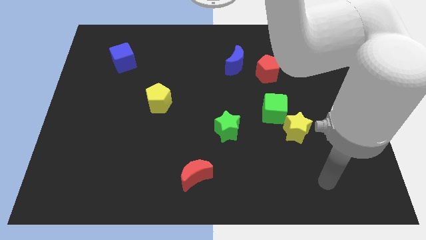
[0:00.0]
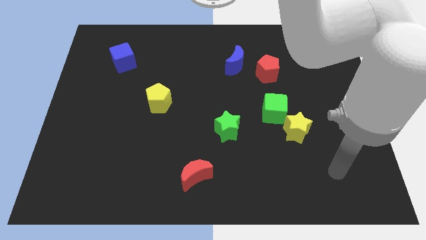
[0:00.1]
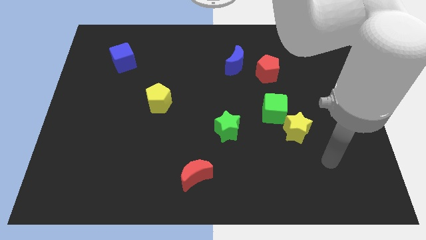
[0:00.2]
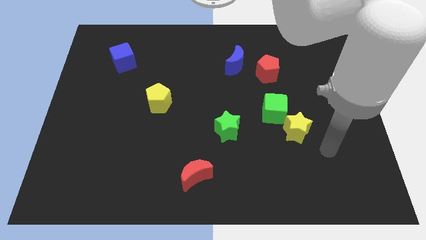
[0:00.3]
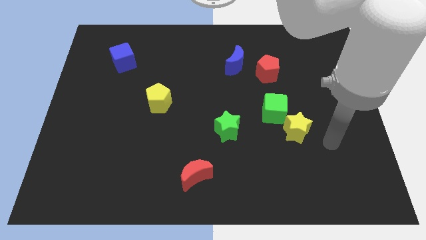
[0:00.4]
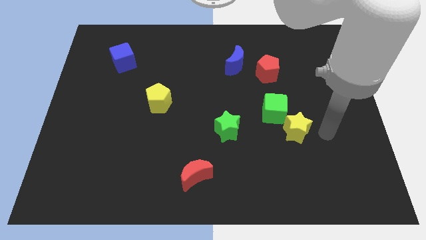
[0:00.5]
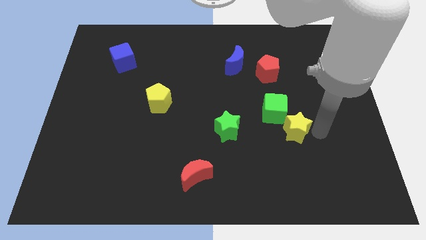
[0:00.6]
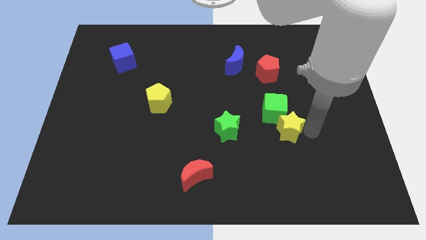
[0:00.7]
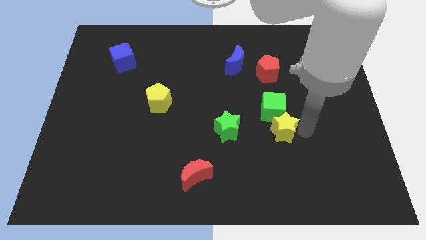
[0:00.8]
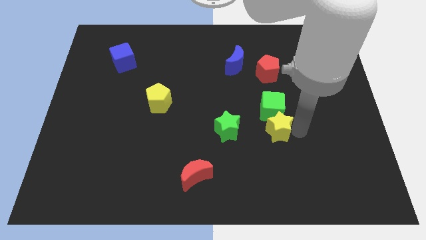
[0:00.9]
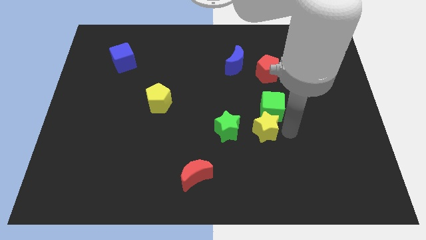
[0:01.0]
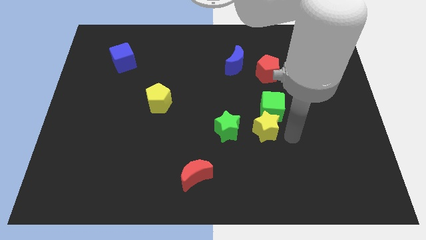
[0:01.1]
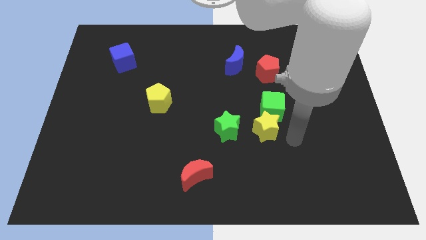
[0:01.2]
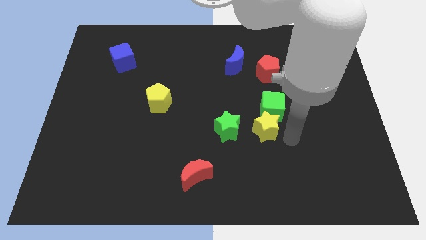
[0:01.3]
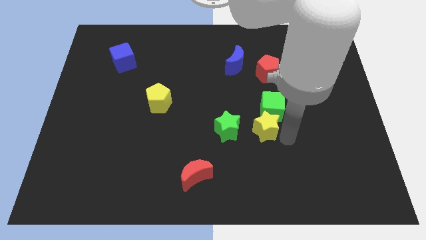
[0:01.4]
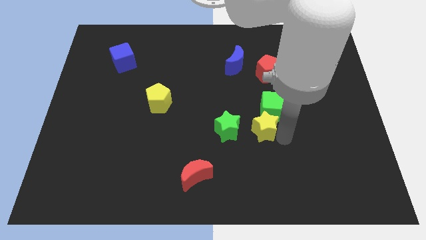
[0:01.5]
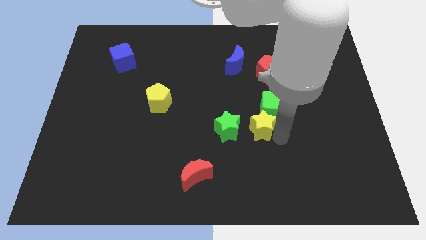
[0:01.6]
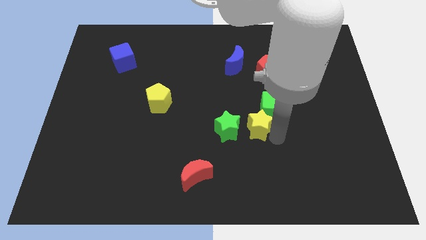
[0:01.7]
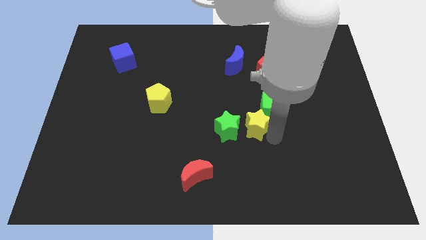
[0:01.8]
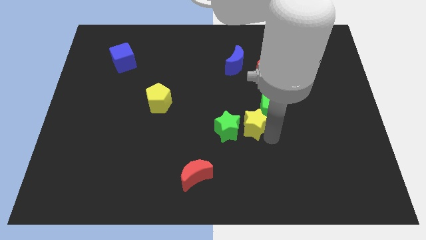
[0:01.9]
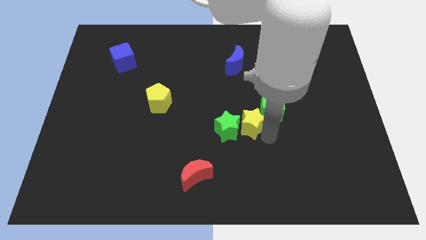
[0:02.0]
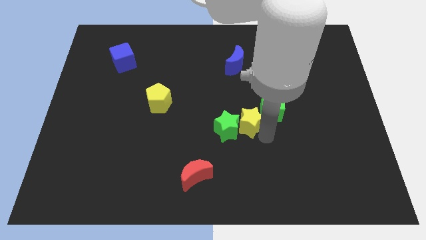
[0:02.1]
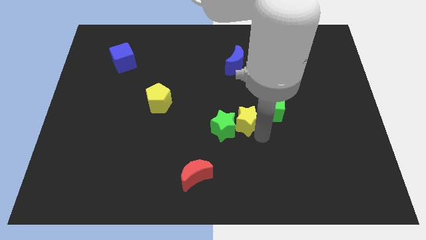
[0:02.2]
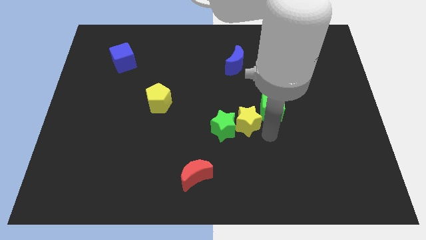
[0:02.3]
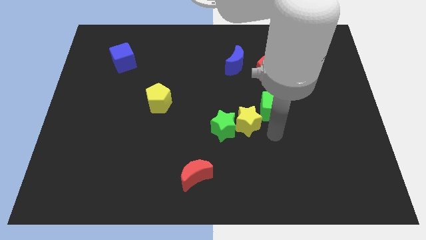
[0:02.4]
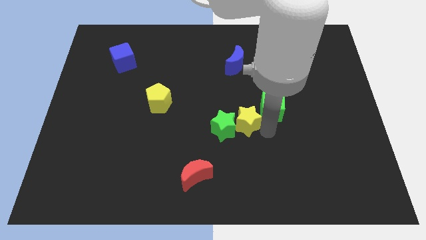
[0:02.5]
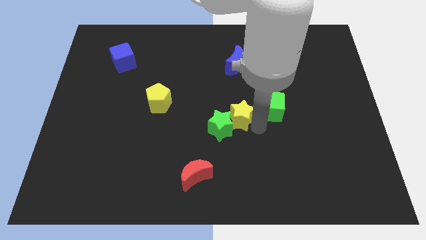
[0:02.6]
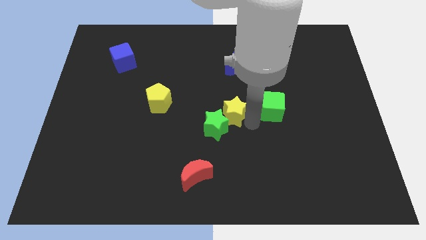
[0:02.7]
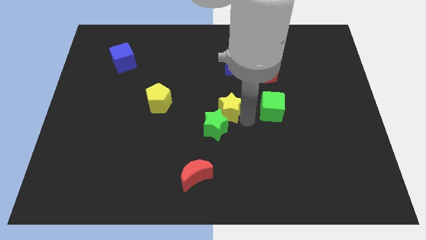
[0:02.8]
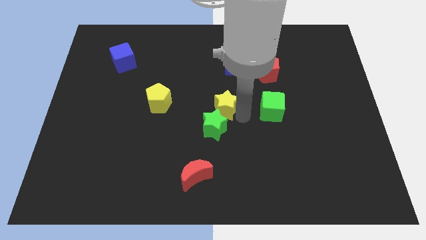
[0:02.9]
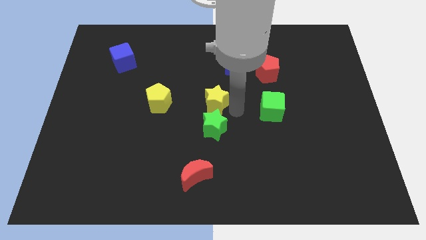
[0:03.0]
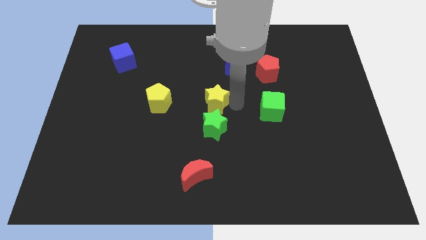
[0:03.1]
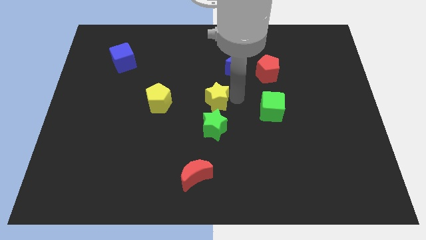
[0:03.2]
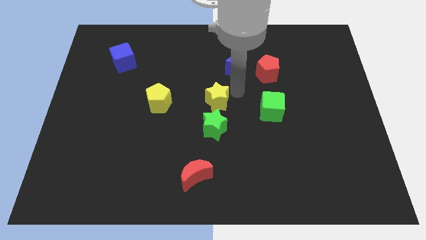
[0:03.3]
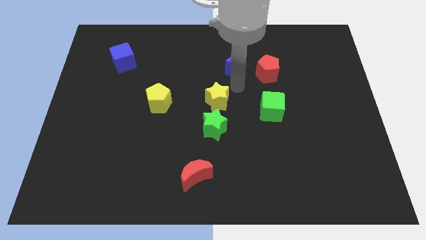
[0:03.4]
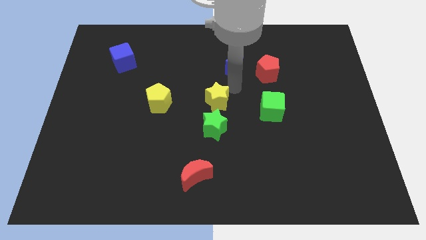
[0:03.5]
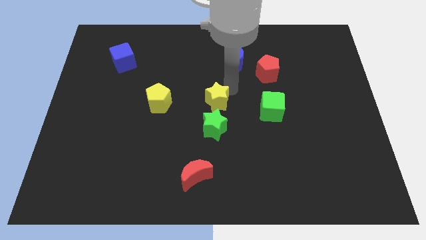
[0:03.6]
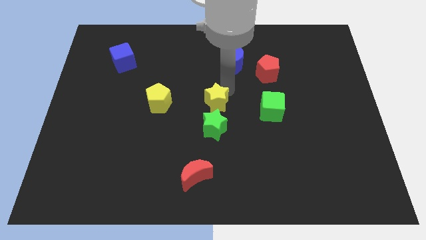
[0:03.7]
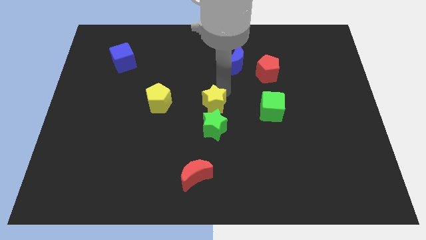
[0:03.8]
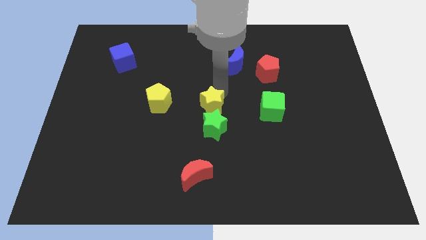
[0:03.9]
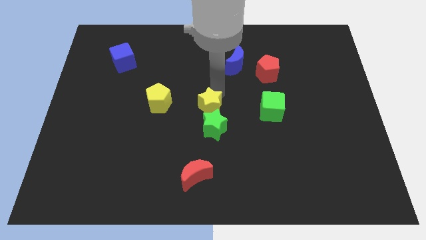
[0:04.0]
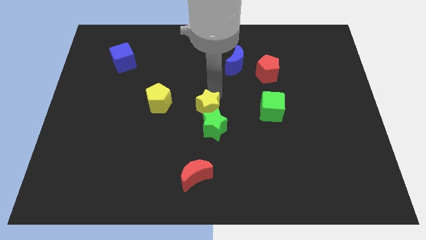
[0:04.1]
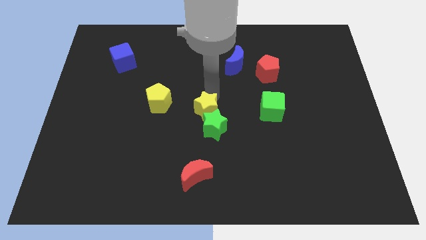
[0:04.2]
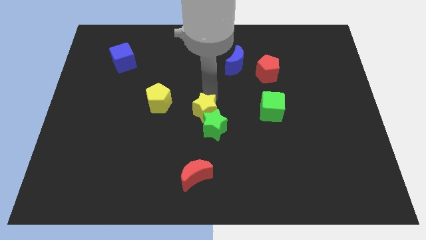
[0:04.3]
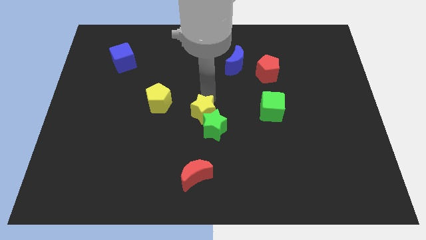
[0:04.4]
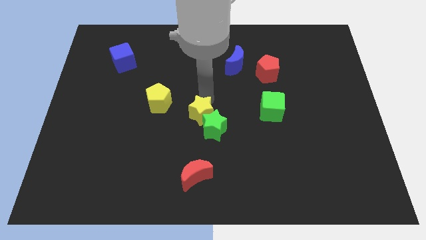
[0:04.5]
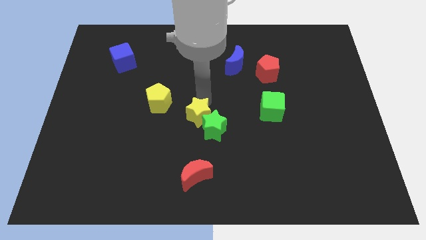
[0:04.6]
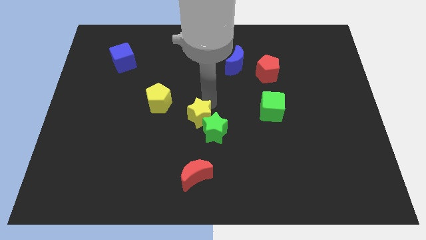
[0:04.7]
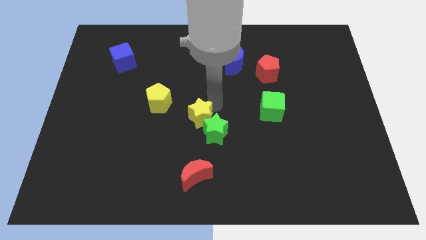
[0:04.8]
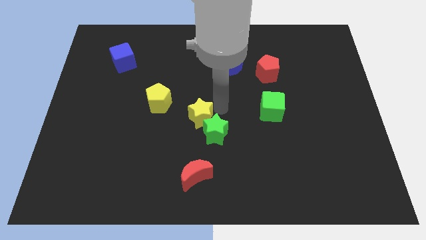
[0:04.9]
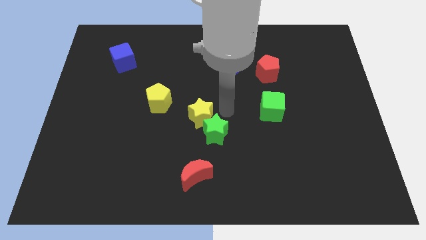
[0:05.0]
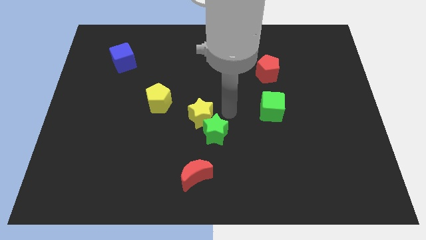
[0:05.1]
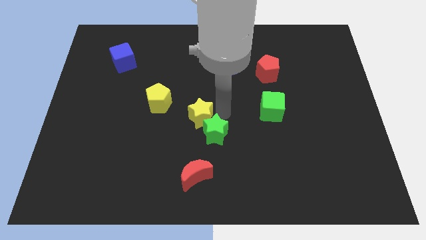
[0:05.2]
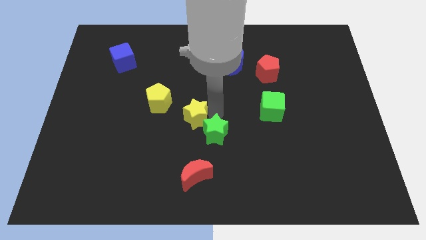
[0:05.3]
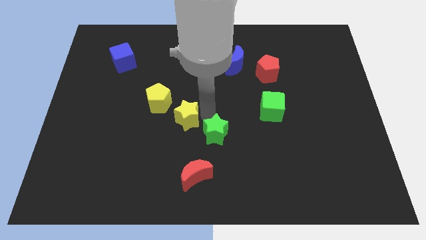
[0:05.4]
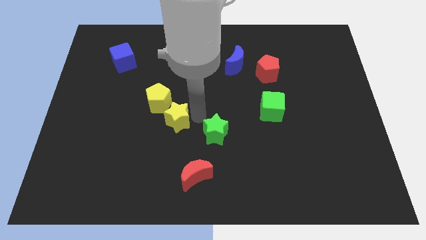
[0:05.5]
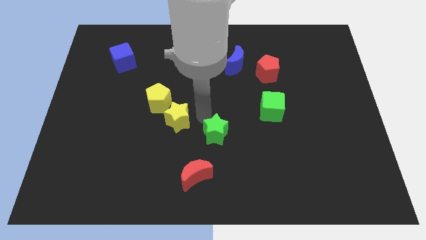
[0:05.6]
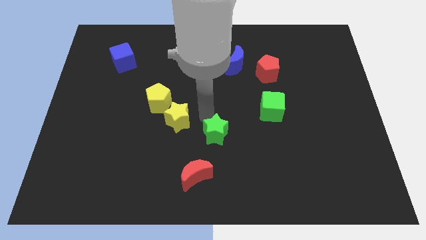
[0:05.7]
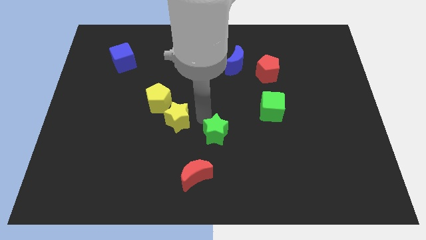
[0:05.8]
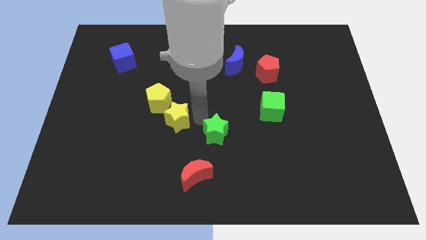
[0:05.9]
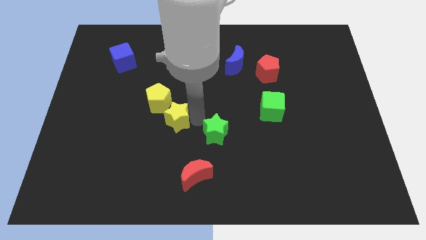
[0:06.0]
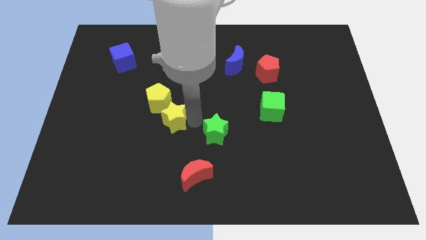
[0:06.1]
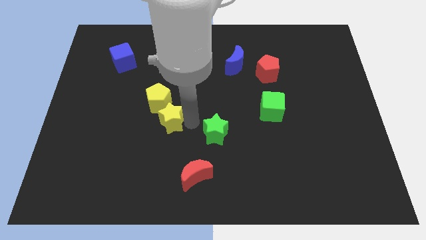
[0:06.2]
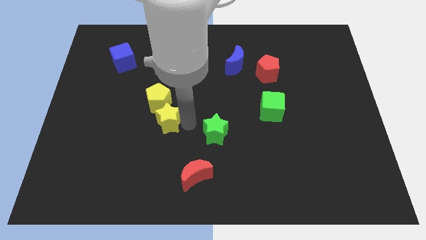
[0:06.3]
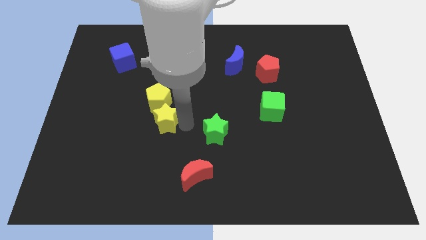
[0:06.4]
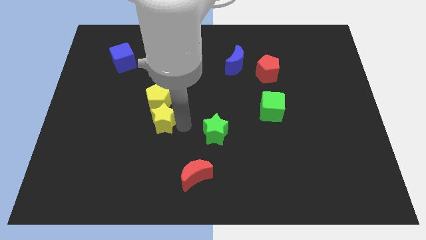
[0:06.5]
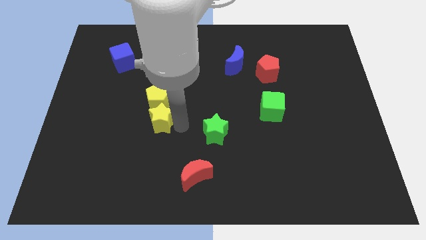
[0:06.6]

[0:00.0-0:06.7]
put the yellow star diagonally down and to the left of the yellow pentagon

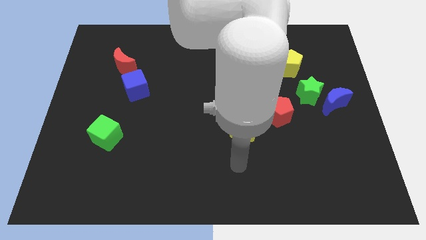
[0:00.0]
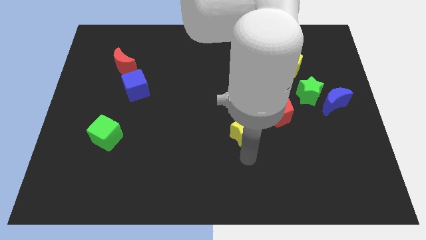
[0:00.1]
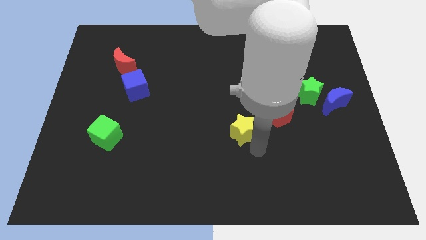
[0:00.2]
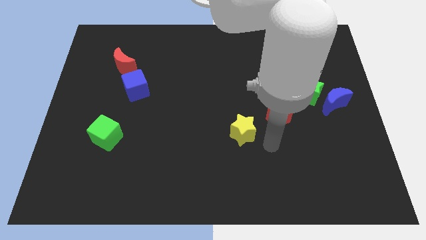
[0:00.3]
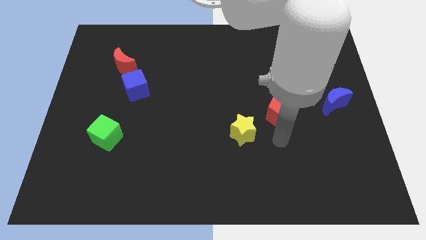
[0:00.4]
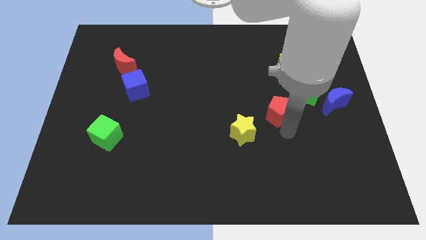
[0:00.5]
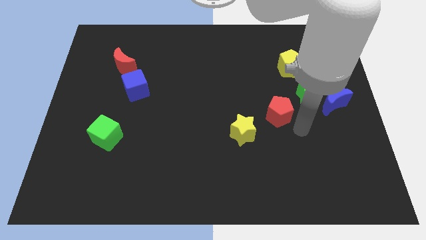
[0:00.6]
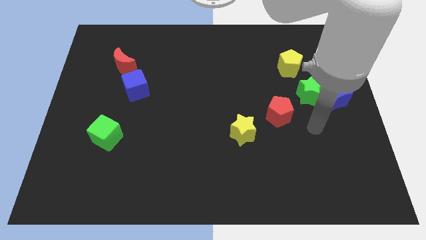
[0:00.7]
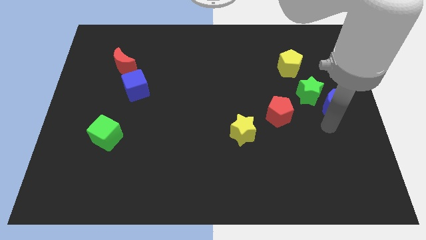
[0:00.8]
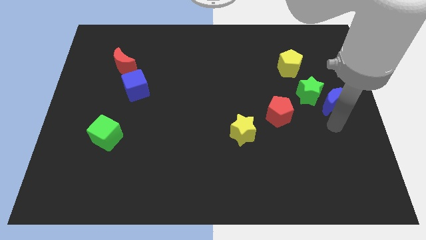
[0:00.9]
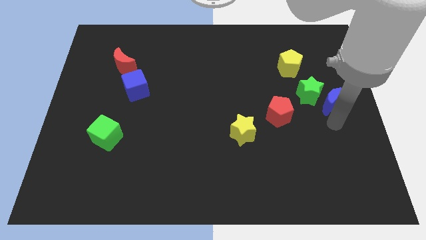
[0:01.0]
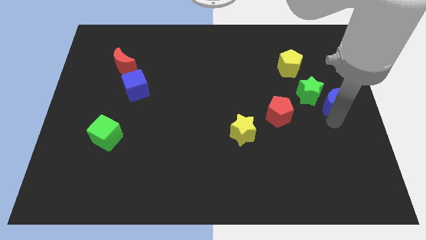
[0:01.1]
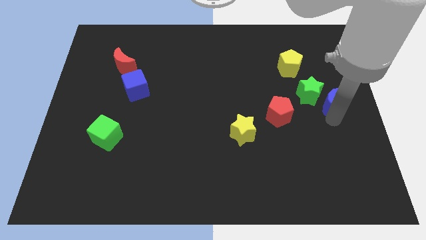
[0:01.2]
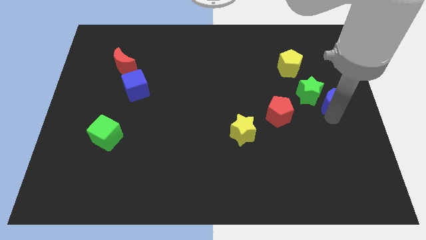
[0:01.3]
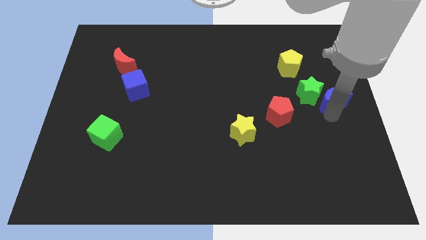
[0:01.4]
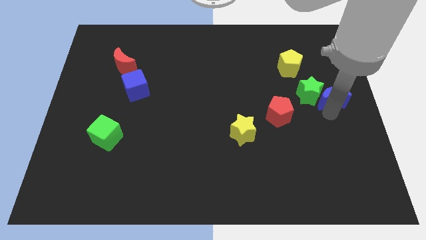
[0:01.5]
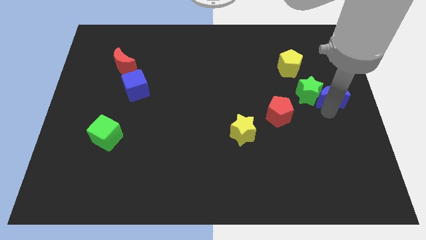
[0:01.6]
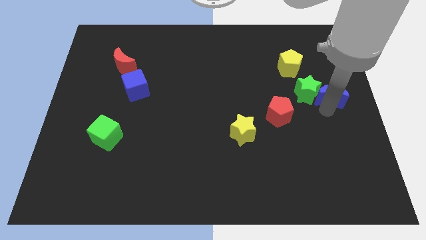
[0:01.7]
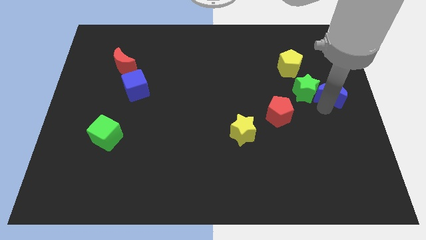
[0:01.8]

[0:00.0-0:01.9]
put the blue moon diagonally down and to the right of the yellow pentagon
